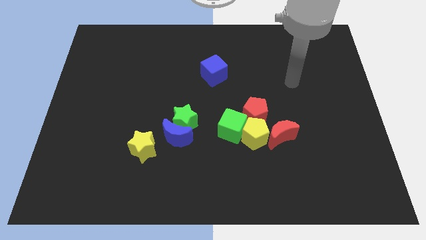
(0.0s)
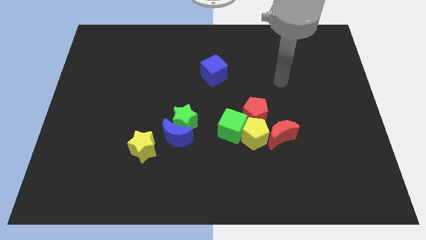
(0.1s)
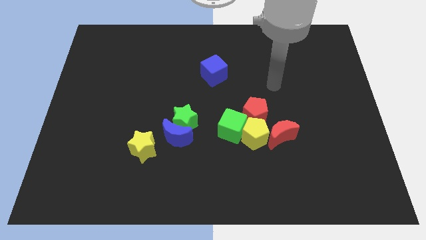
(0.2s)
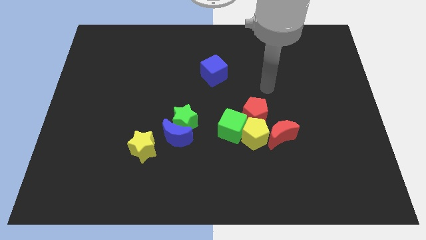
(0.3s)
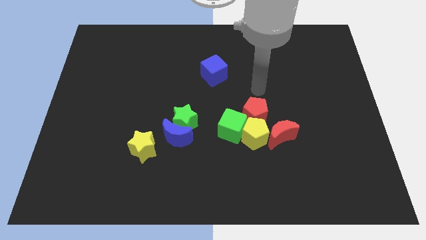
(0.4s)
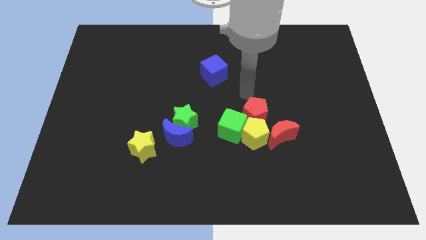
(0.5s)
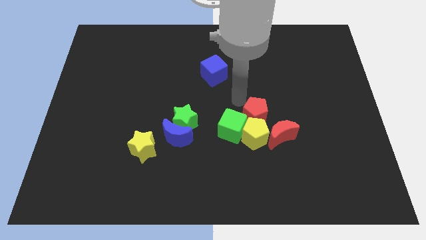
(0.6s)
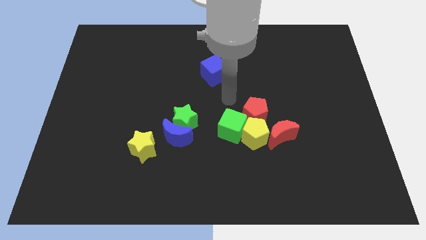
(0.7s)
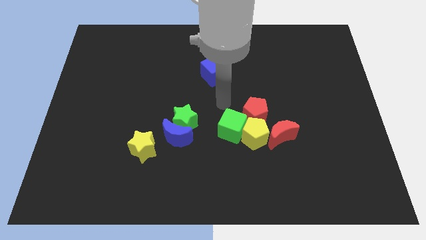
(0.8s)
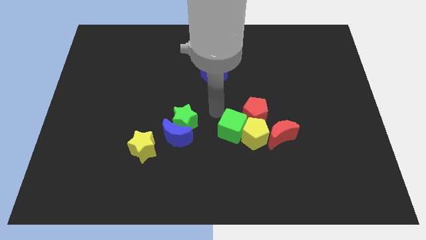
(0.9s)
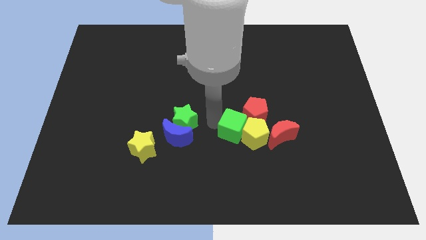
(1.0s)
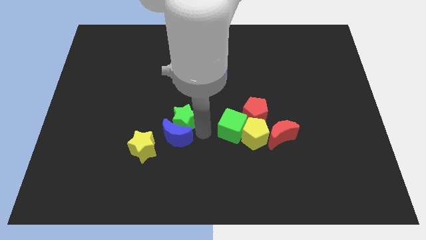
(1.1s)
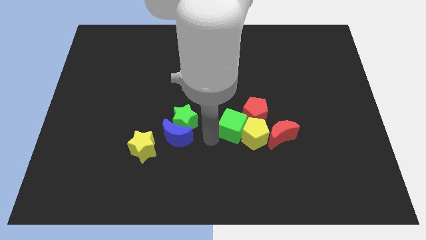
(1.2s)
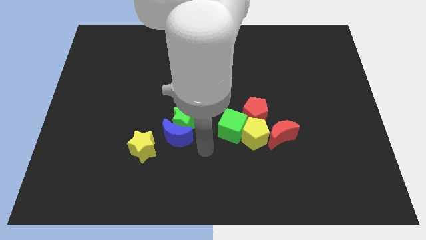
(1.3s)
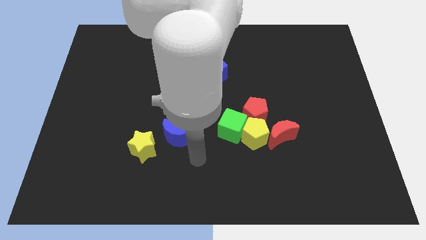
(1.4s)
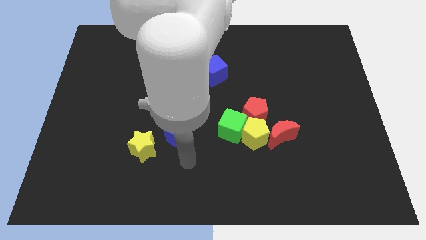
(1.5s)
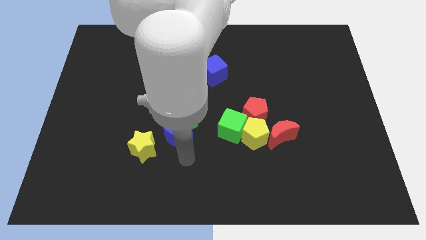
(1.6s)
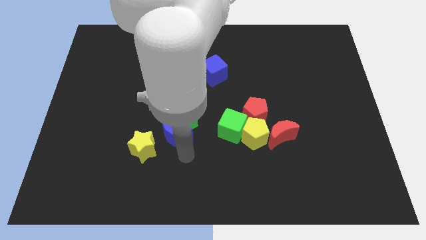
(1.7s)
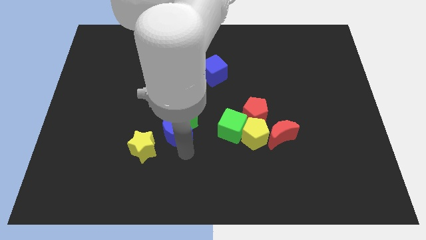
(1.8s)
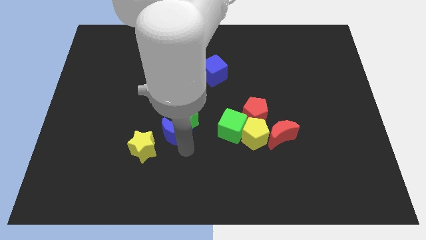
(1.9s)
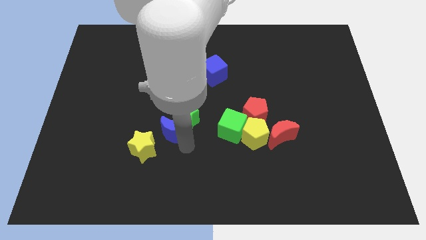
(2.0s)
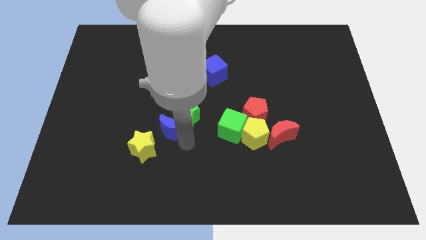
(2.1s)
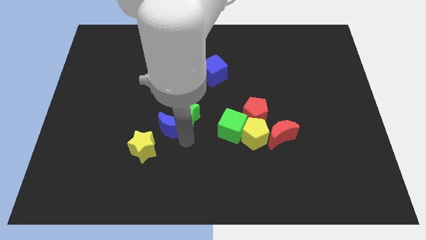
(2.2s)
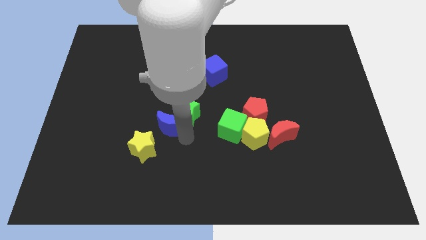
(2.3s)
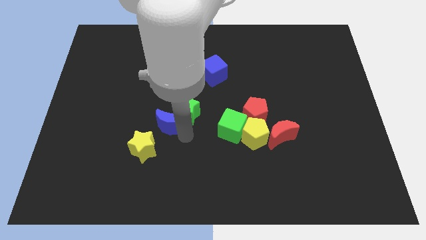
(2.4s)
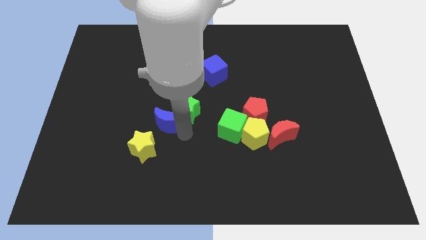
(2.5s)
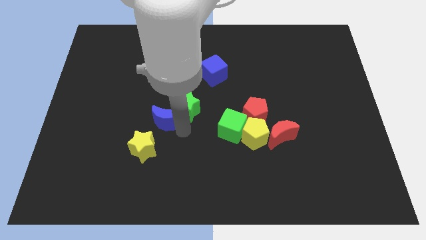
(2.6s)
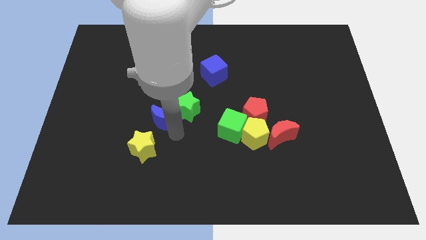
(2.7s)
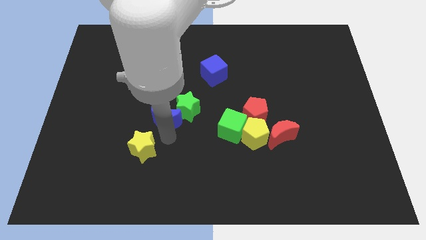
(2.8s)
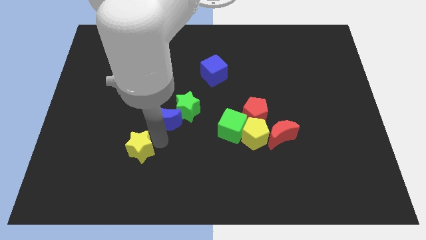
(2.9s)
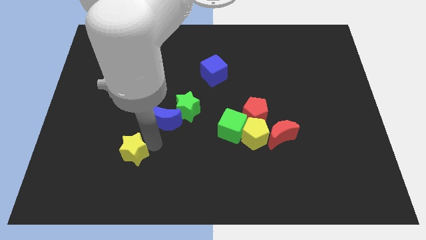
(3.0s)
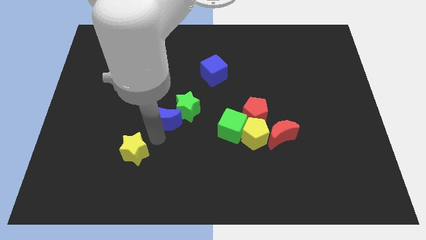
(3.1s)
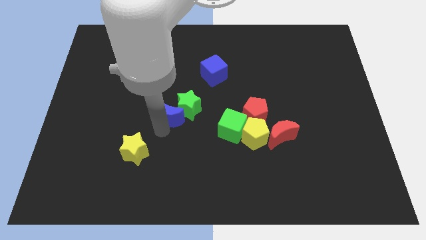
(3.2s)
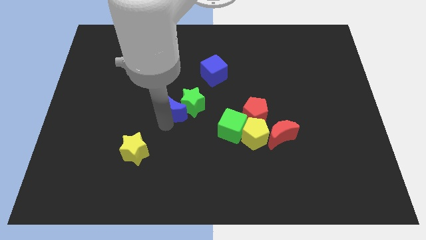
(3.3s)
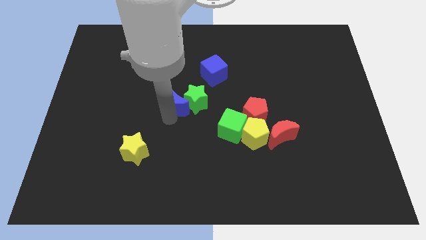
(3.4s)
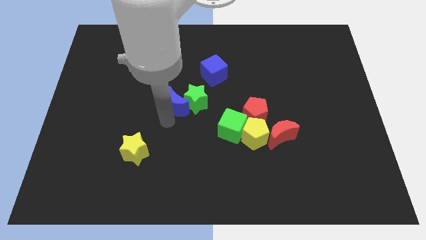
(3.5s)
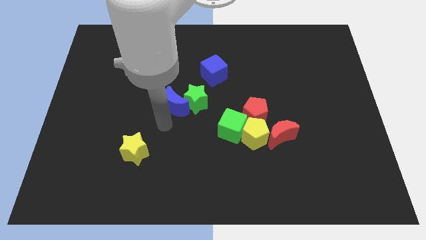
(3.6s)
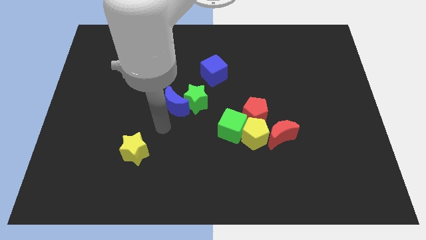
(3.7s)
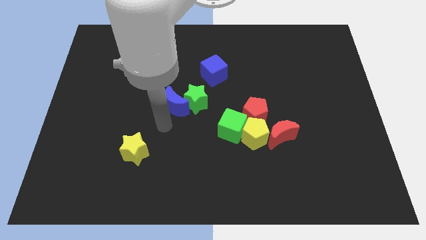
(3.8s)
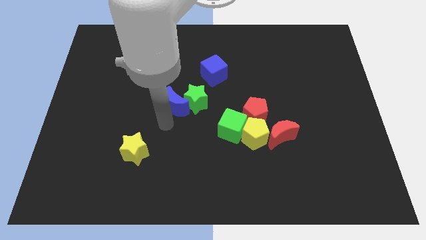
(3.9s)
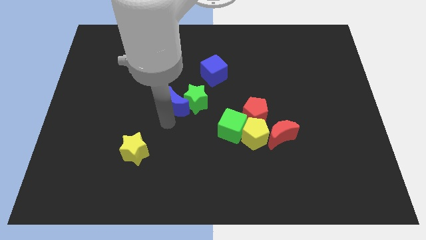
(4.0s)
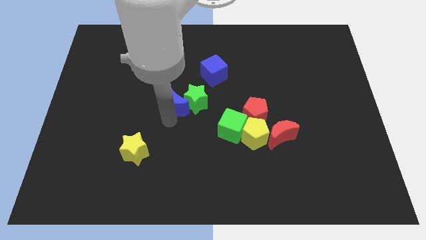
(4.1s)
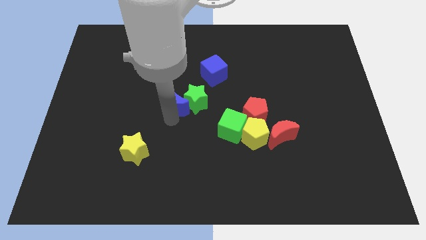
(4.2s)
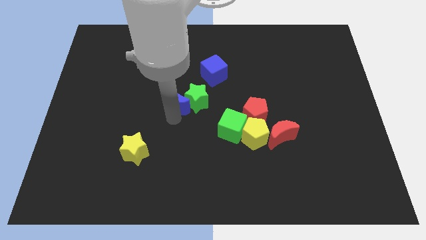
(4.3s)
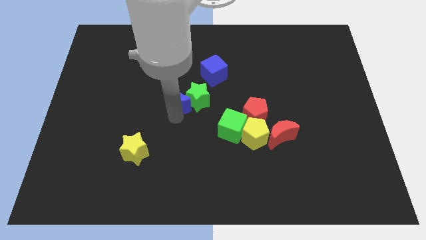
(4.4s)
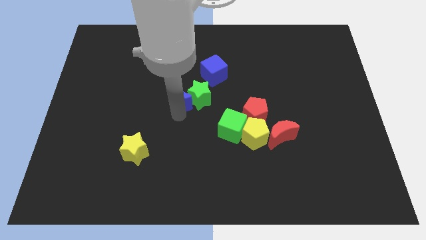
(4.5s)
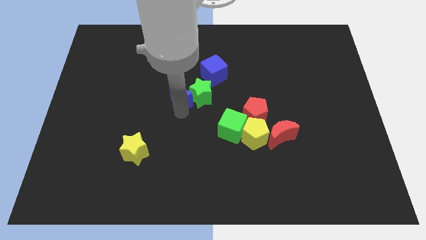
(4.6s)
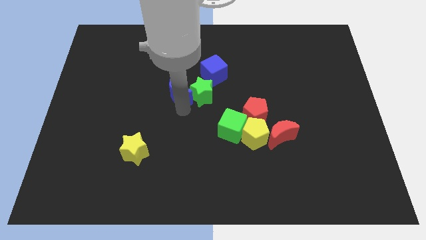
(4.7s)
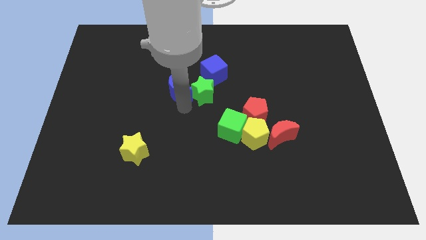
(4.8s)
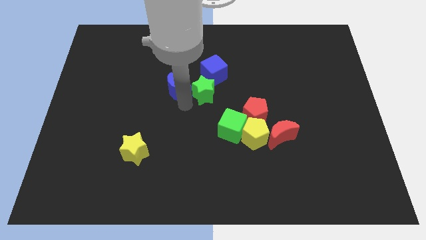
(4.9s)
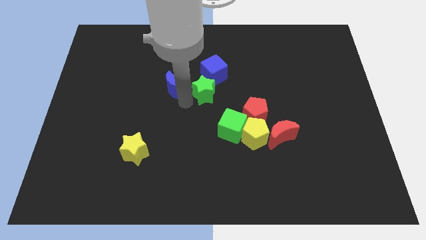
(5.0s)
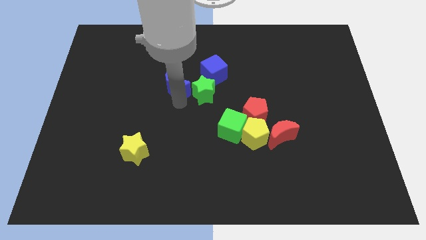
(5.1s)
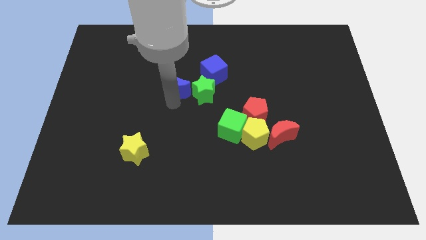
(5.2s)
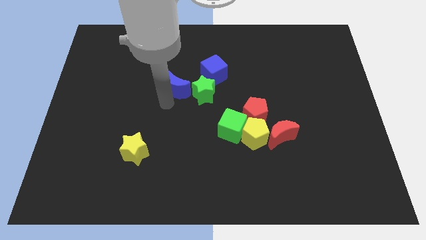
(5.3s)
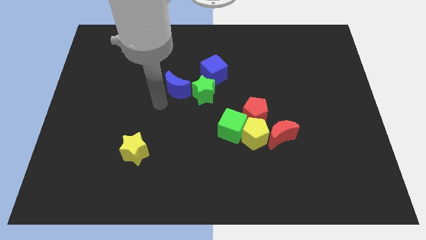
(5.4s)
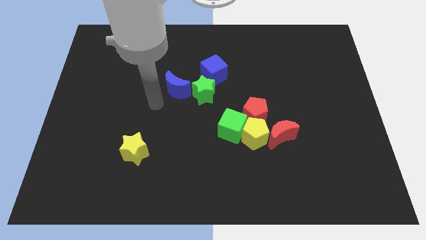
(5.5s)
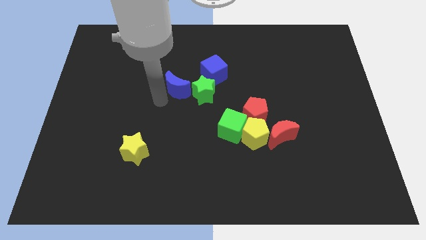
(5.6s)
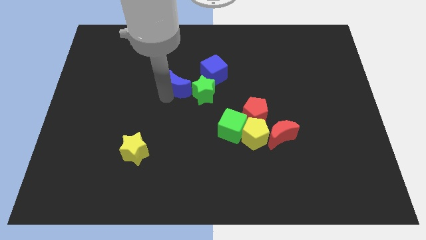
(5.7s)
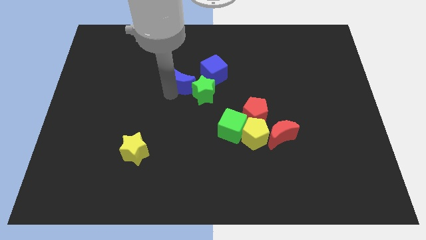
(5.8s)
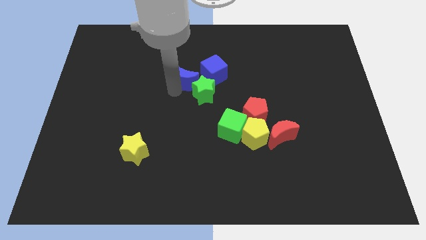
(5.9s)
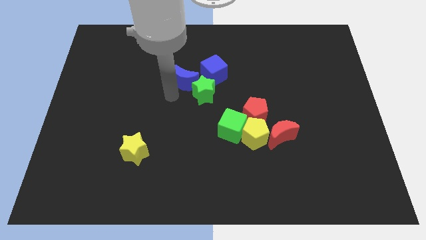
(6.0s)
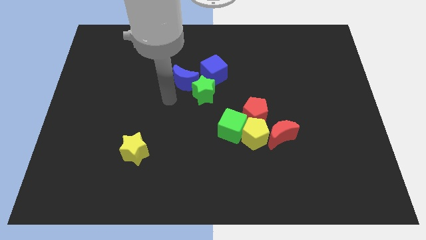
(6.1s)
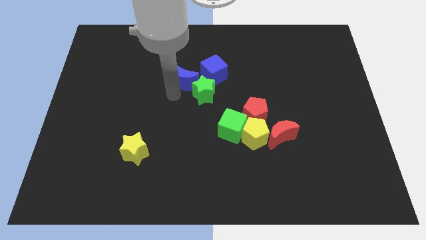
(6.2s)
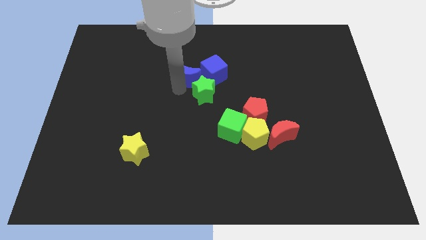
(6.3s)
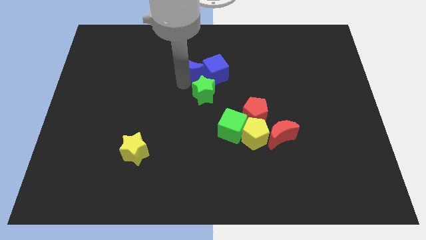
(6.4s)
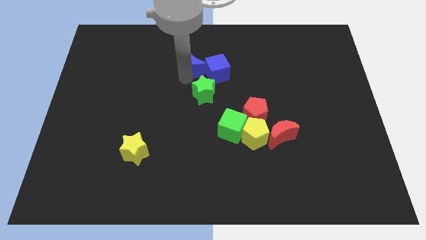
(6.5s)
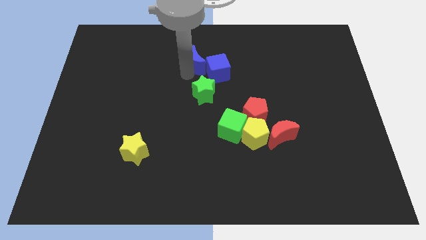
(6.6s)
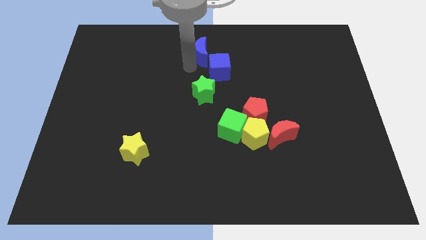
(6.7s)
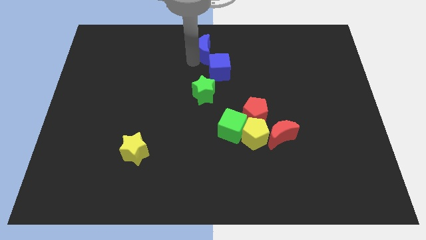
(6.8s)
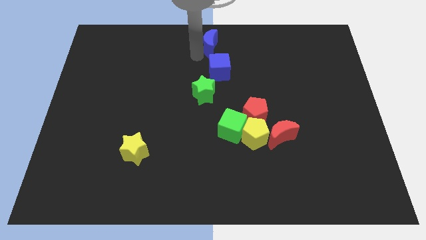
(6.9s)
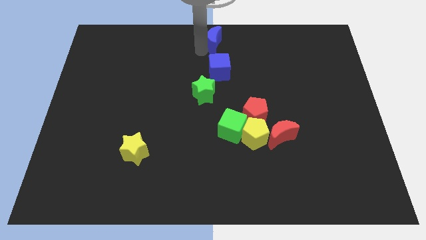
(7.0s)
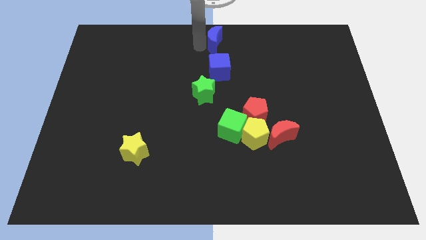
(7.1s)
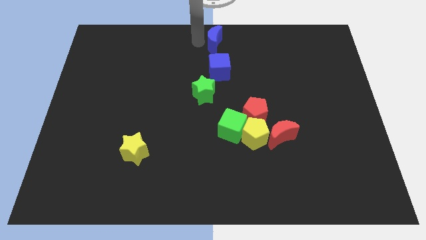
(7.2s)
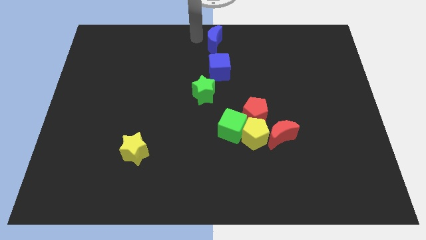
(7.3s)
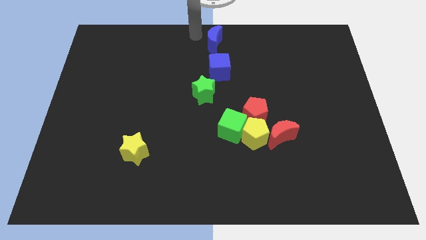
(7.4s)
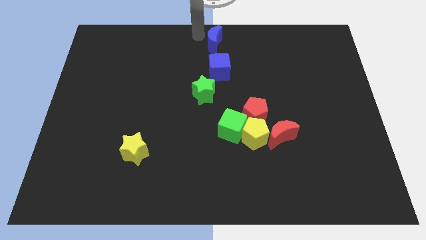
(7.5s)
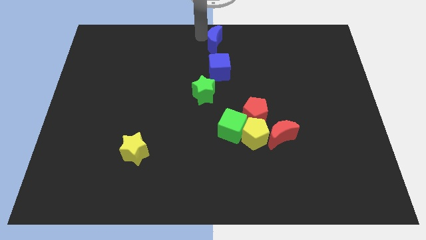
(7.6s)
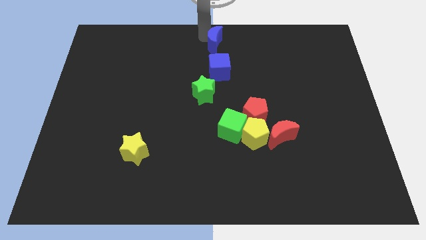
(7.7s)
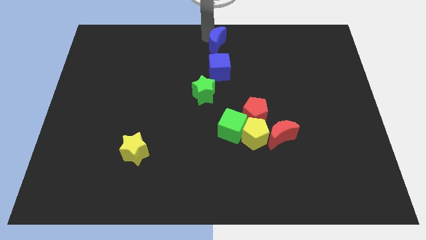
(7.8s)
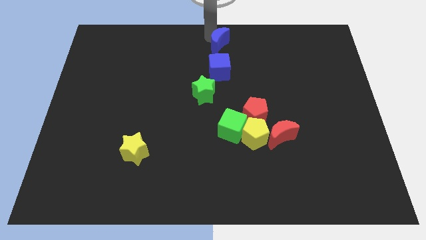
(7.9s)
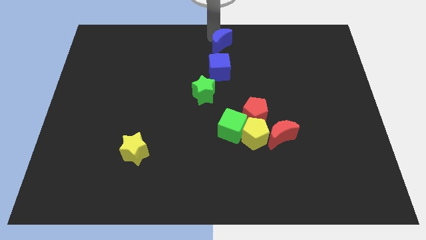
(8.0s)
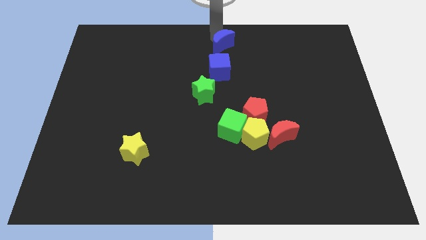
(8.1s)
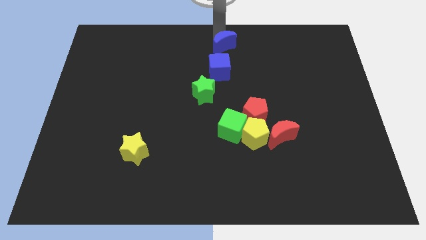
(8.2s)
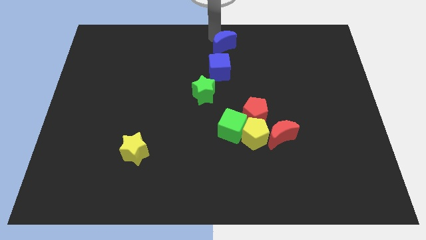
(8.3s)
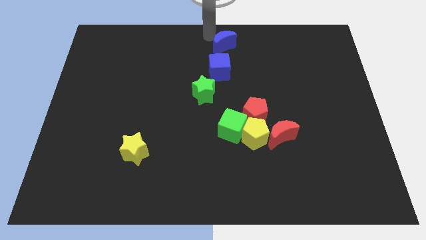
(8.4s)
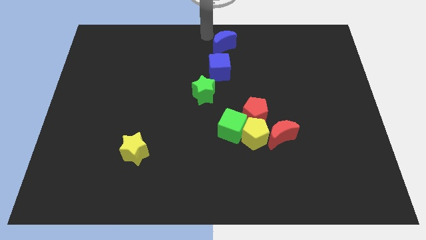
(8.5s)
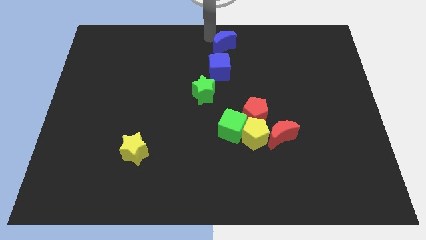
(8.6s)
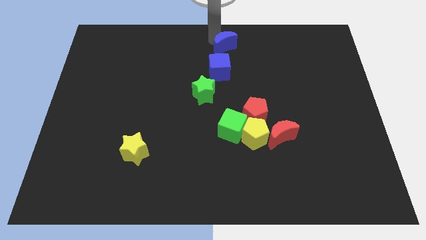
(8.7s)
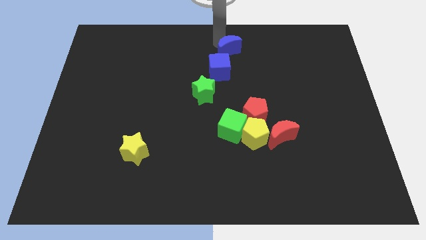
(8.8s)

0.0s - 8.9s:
slide the blue moon diagonally up and to the right of the blue cube
